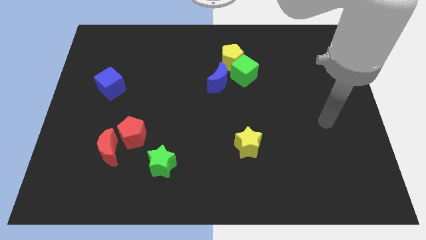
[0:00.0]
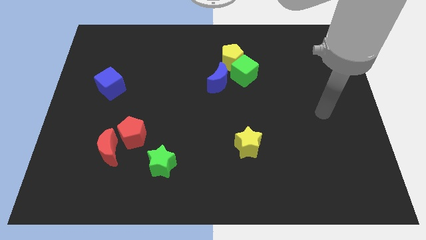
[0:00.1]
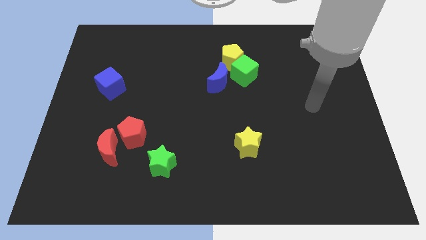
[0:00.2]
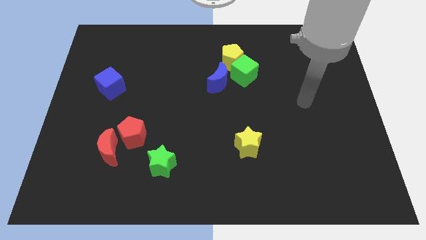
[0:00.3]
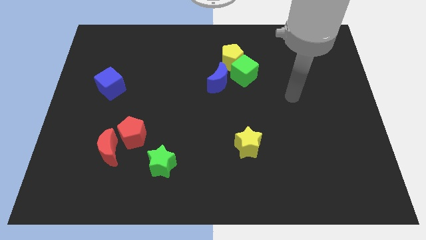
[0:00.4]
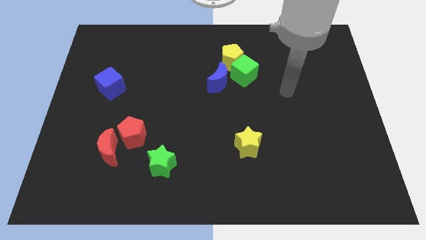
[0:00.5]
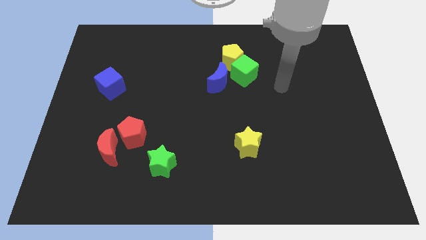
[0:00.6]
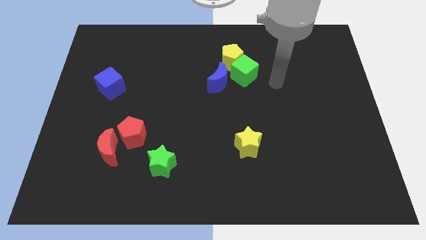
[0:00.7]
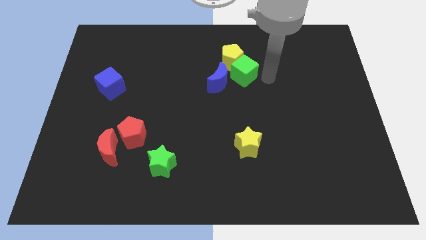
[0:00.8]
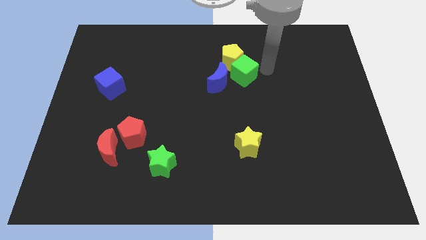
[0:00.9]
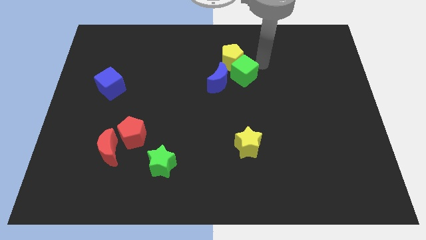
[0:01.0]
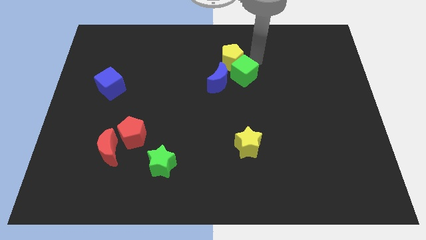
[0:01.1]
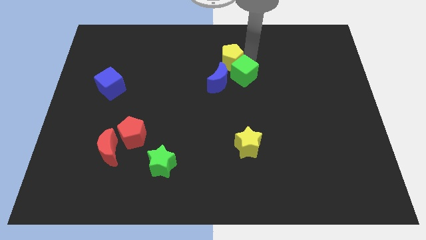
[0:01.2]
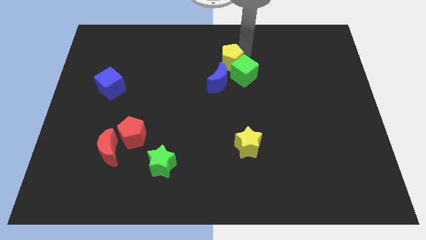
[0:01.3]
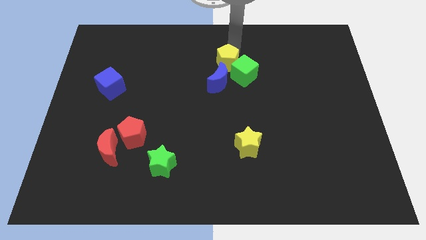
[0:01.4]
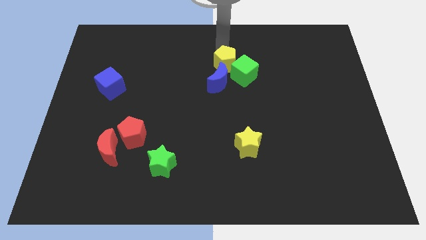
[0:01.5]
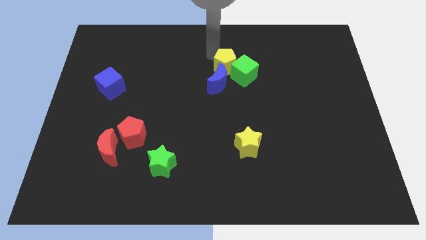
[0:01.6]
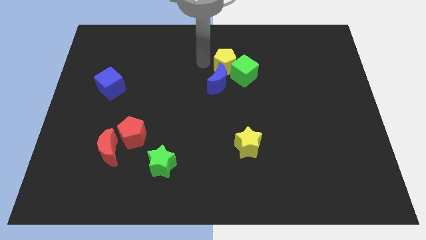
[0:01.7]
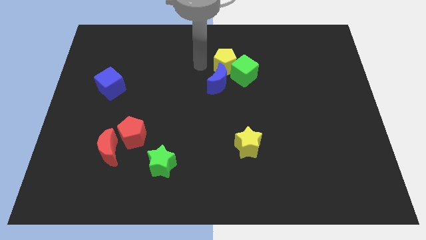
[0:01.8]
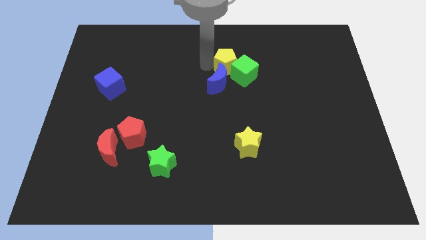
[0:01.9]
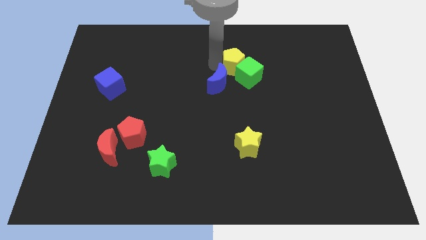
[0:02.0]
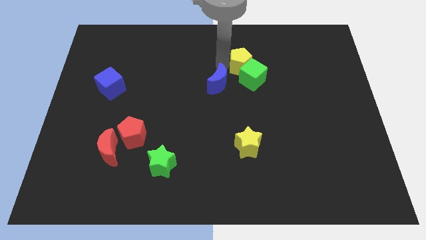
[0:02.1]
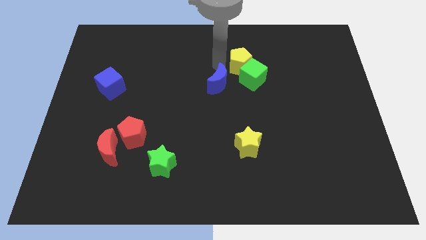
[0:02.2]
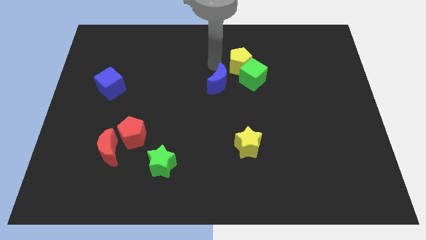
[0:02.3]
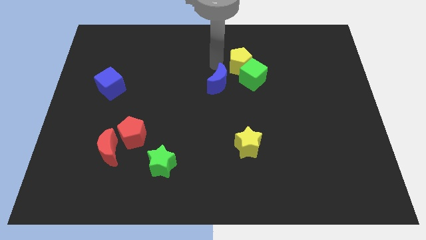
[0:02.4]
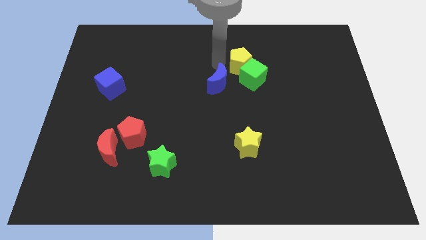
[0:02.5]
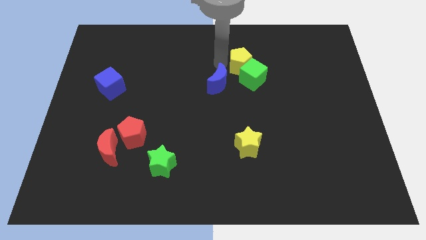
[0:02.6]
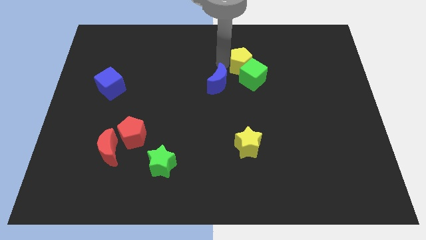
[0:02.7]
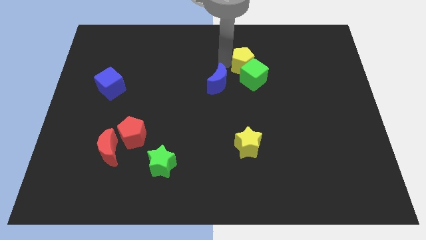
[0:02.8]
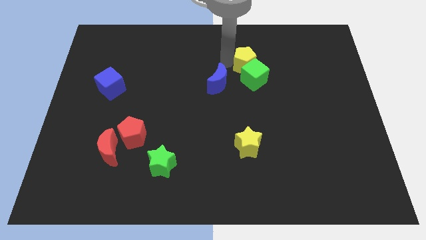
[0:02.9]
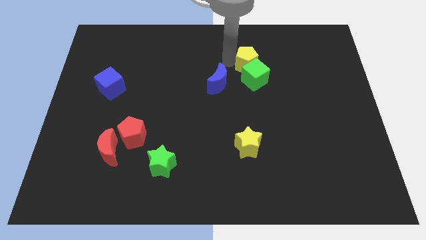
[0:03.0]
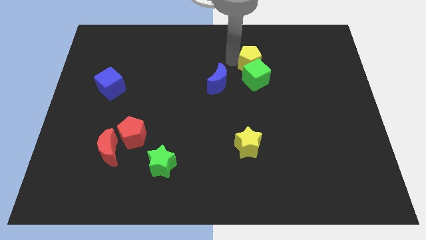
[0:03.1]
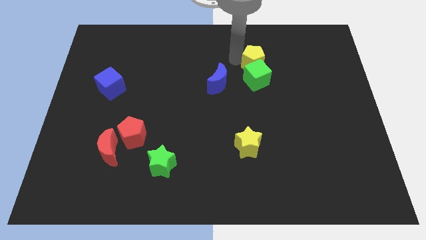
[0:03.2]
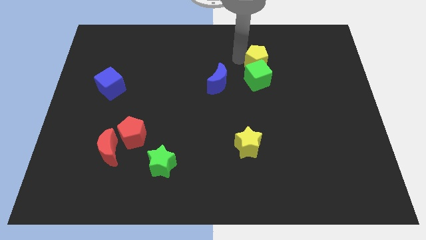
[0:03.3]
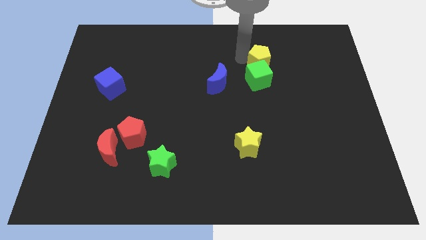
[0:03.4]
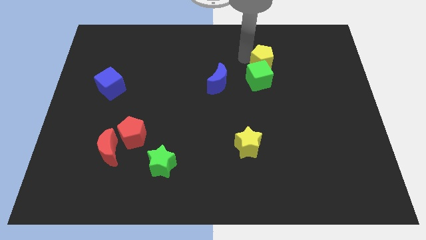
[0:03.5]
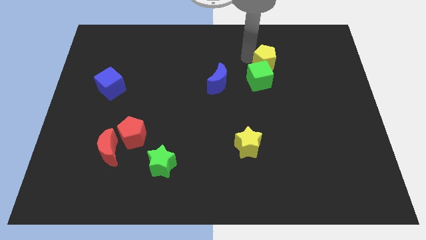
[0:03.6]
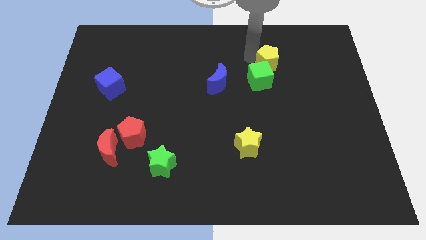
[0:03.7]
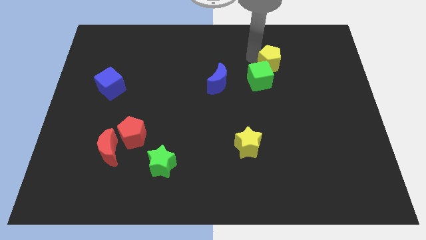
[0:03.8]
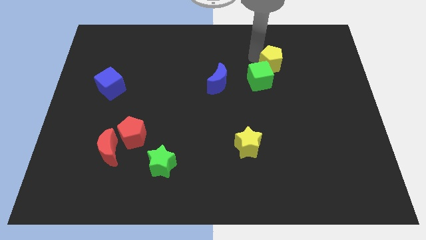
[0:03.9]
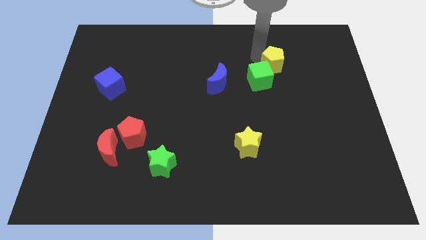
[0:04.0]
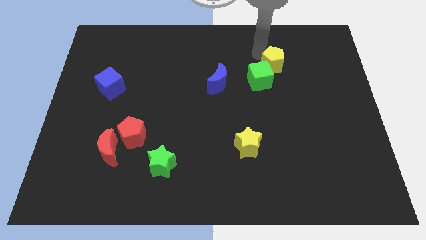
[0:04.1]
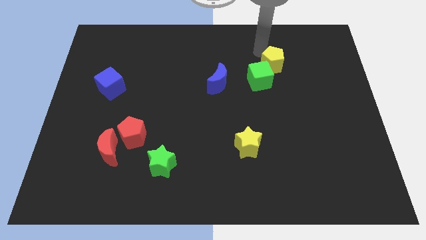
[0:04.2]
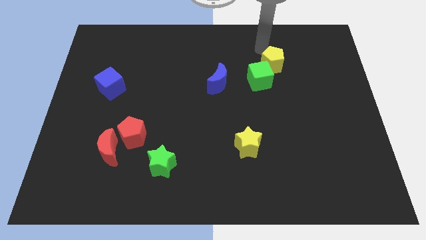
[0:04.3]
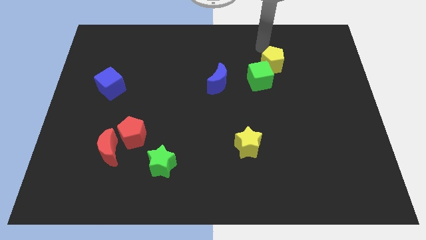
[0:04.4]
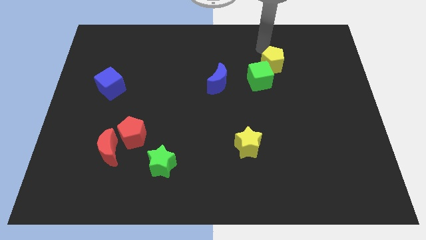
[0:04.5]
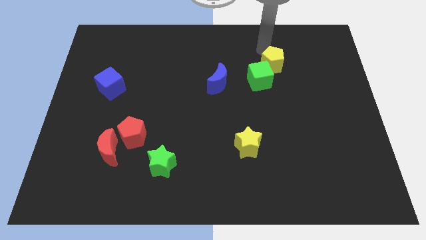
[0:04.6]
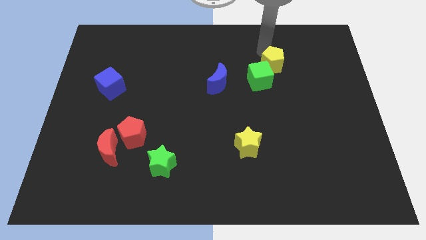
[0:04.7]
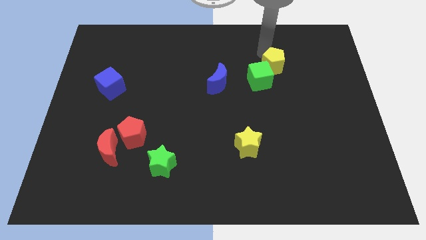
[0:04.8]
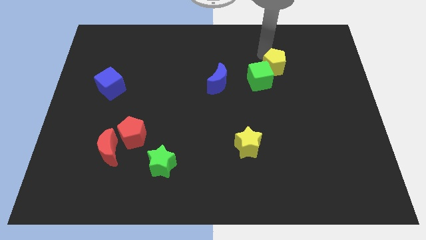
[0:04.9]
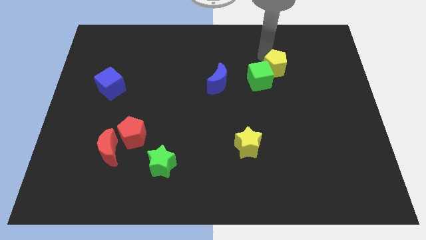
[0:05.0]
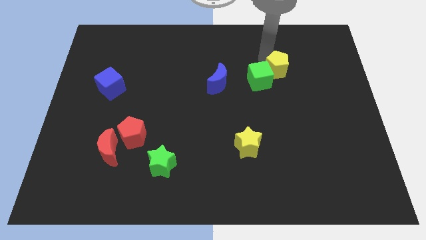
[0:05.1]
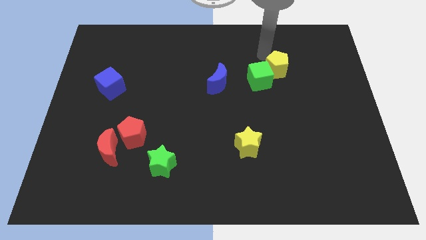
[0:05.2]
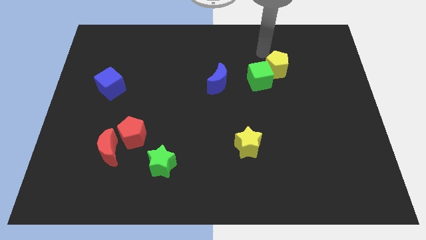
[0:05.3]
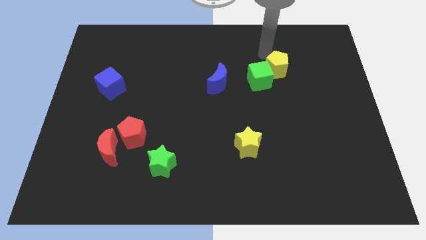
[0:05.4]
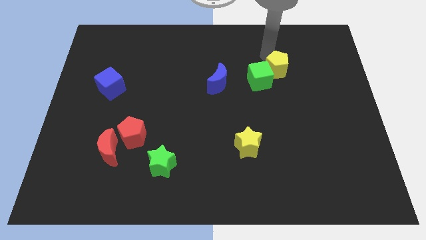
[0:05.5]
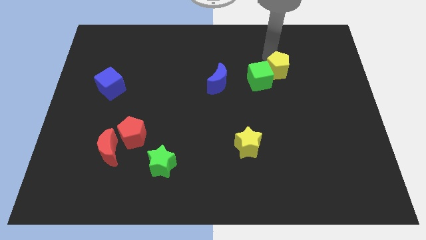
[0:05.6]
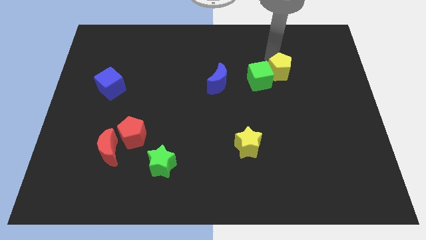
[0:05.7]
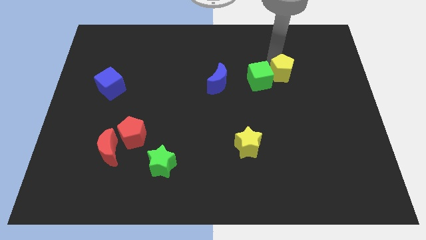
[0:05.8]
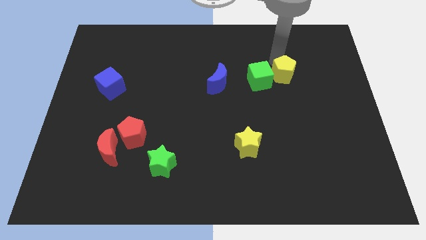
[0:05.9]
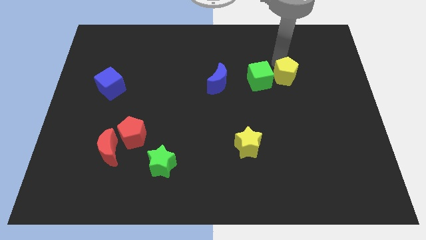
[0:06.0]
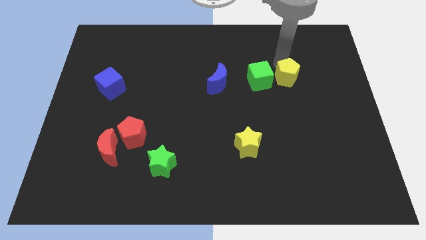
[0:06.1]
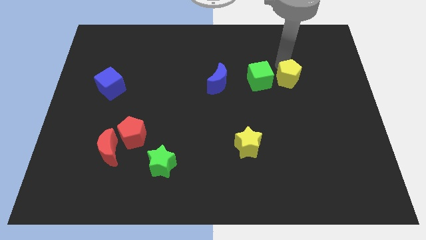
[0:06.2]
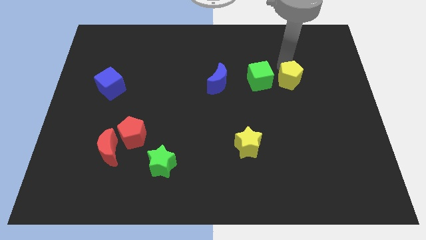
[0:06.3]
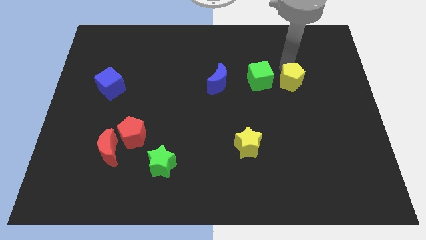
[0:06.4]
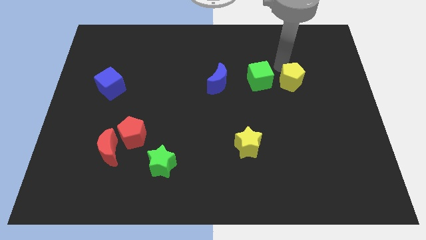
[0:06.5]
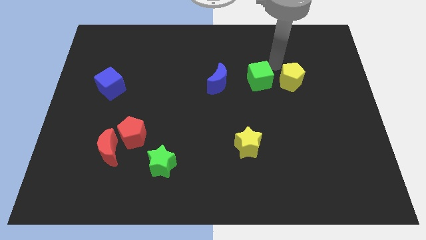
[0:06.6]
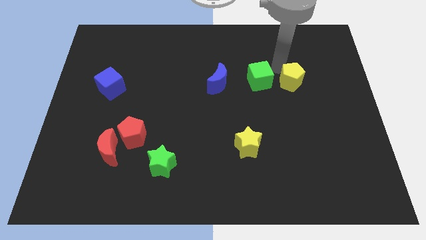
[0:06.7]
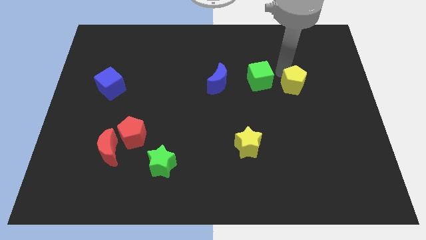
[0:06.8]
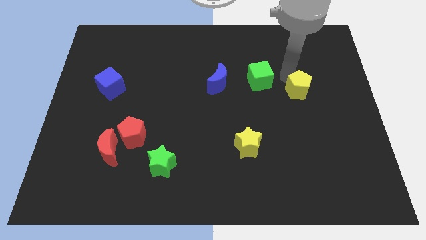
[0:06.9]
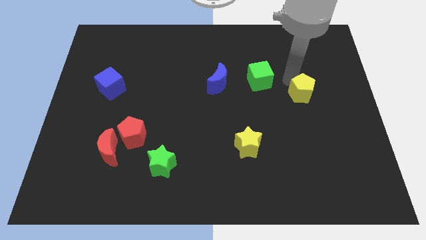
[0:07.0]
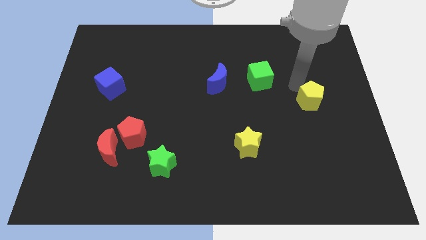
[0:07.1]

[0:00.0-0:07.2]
slide the yellow pentagon downwards and then to the right

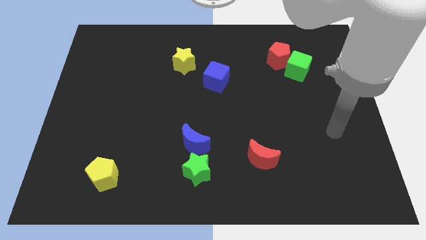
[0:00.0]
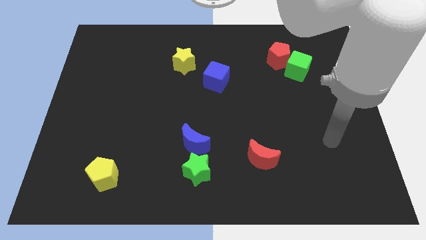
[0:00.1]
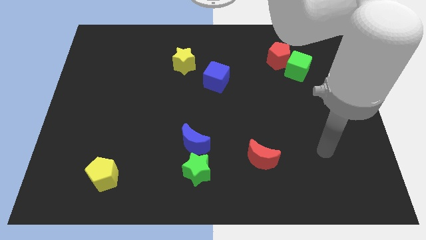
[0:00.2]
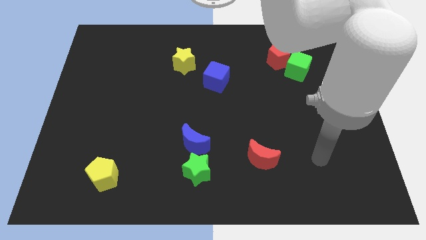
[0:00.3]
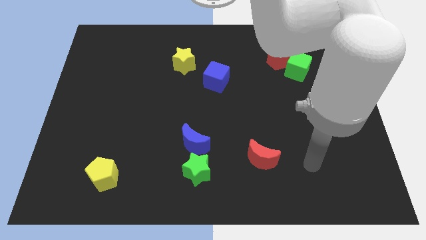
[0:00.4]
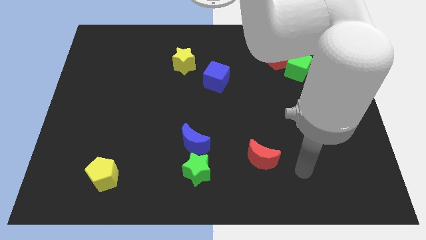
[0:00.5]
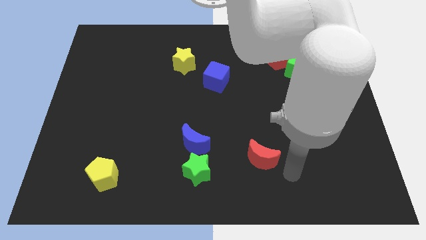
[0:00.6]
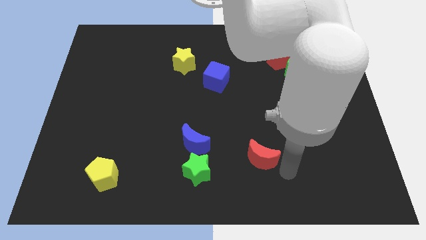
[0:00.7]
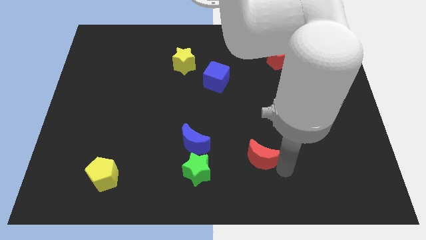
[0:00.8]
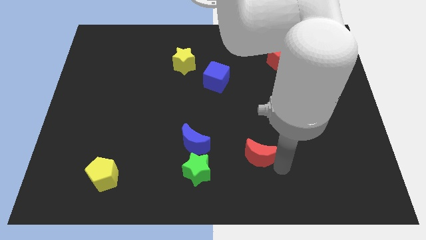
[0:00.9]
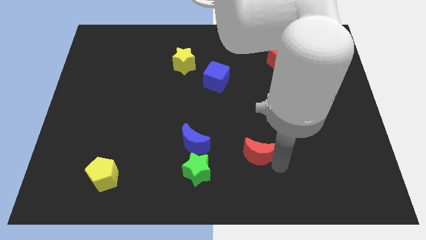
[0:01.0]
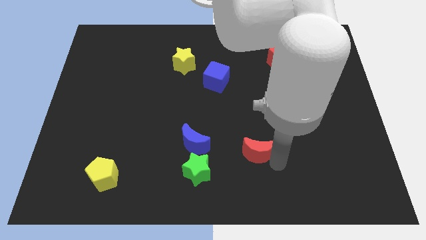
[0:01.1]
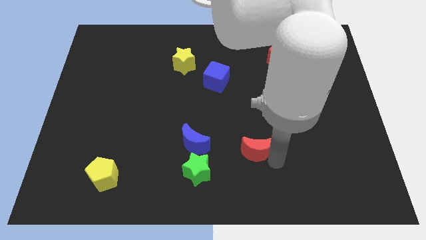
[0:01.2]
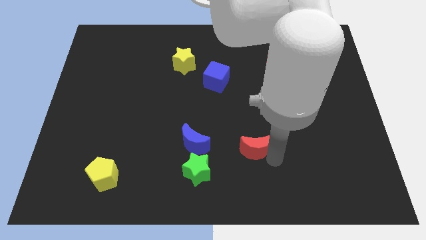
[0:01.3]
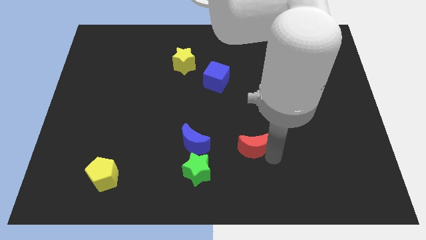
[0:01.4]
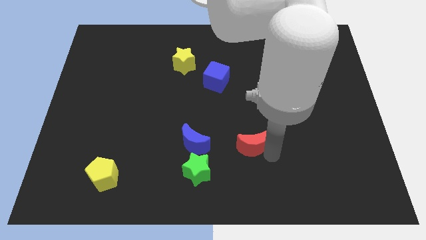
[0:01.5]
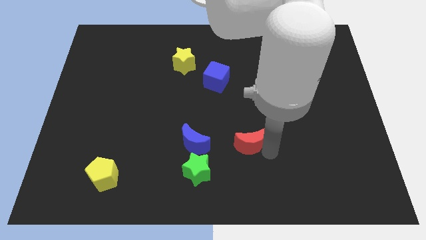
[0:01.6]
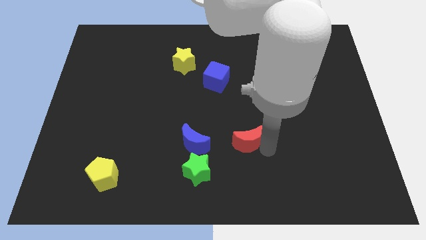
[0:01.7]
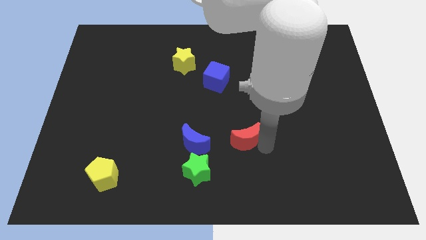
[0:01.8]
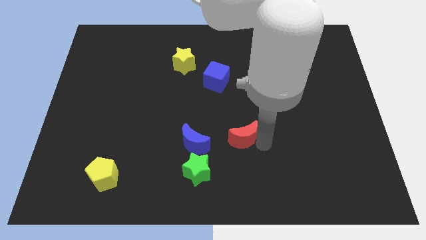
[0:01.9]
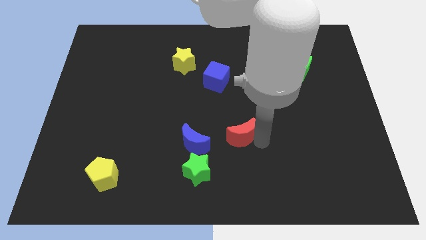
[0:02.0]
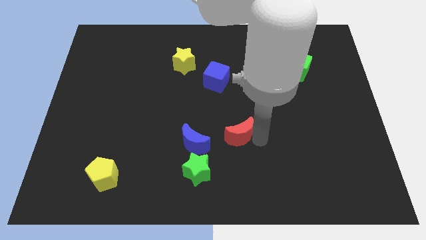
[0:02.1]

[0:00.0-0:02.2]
move the red moon a bit upwards and to the left
